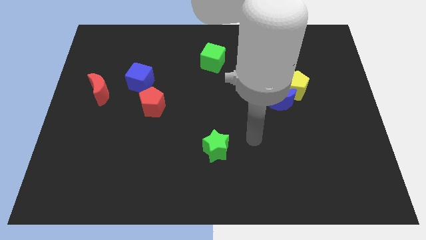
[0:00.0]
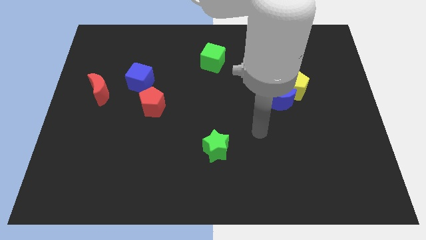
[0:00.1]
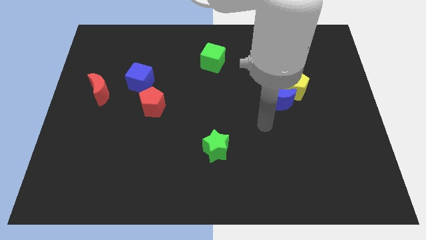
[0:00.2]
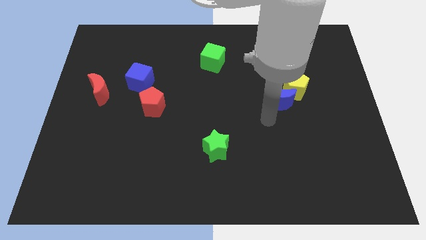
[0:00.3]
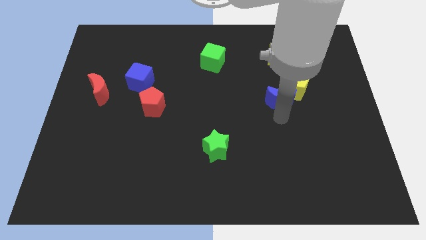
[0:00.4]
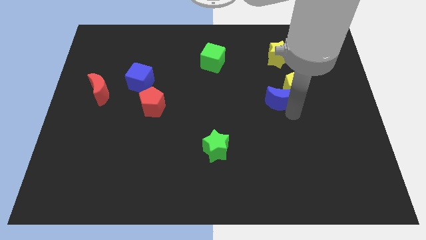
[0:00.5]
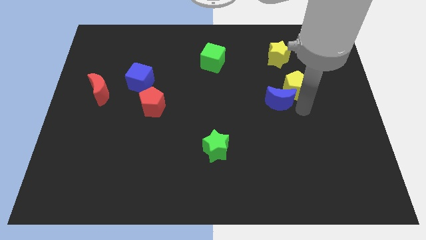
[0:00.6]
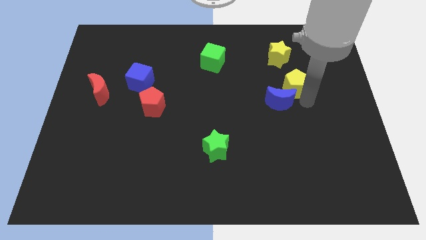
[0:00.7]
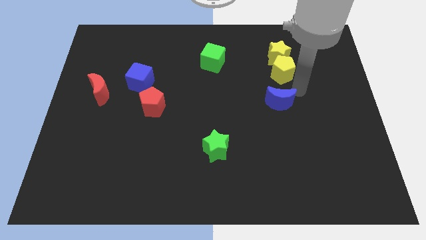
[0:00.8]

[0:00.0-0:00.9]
separate the blue moon from the yellow pentagon

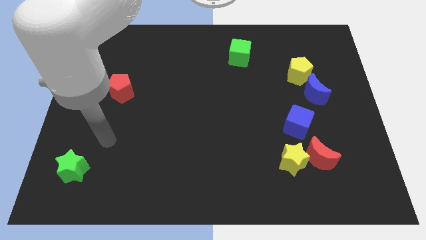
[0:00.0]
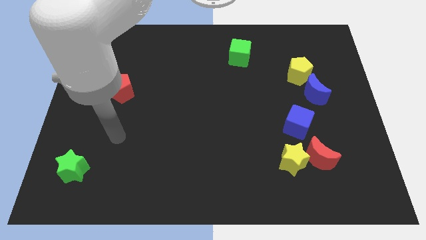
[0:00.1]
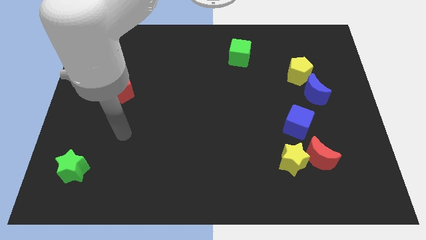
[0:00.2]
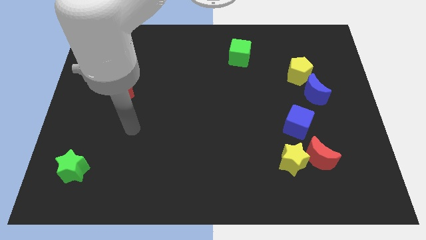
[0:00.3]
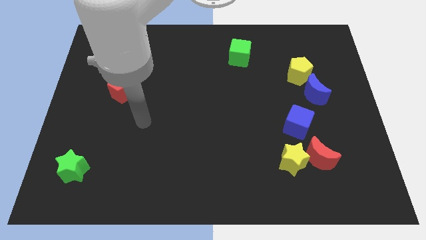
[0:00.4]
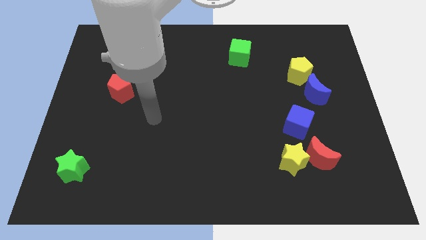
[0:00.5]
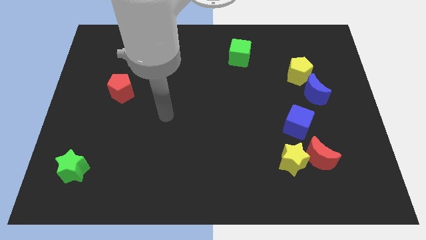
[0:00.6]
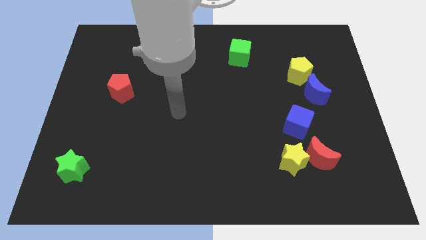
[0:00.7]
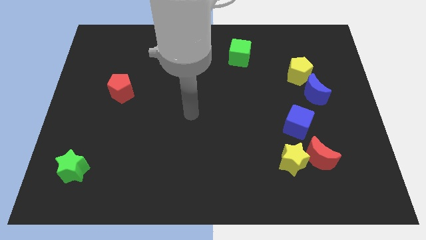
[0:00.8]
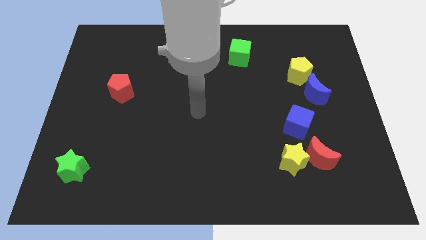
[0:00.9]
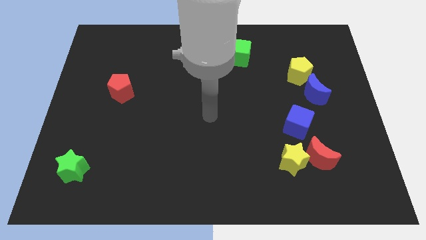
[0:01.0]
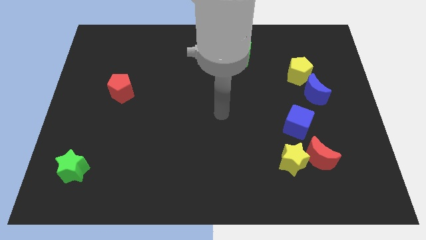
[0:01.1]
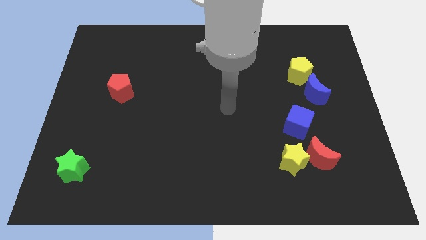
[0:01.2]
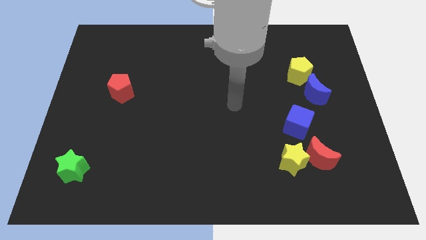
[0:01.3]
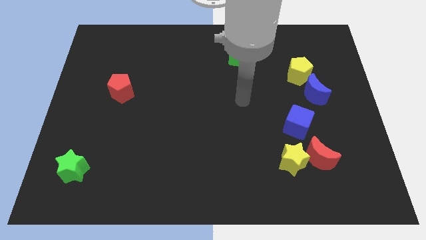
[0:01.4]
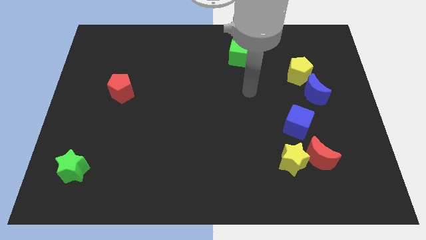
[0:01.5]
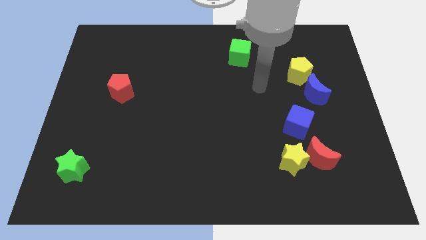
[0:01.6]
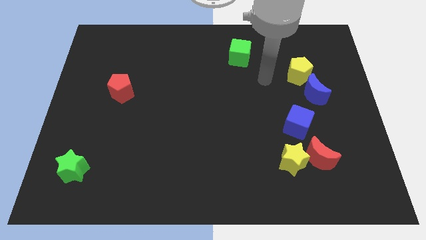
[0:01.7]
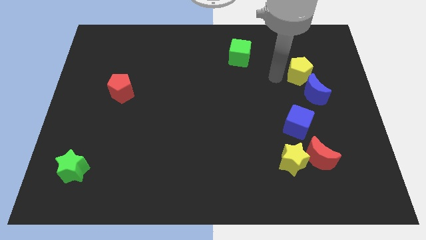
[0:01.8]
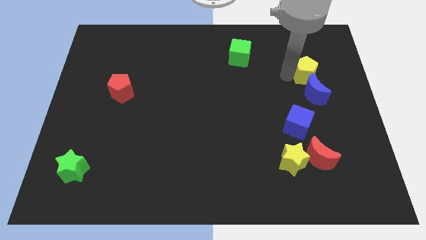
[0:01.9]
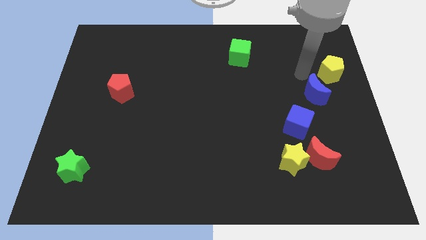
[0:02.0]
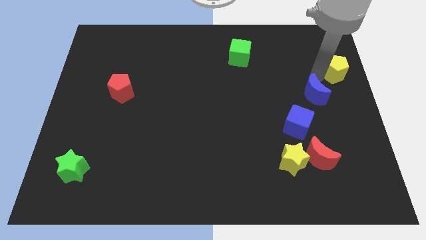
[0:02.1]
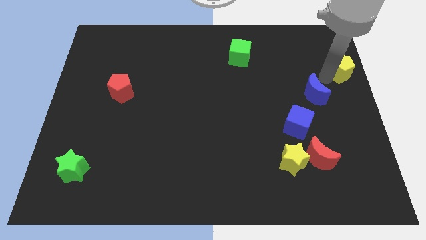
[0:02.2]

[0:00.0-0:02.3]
move the blue moon away from the yellow pentagon

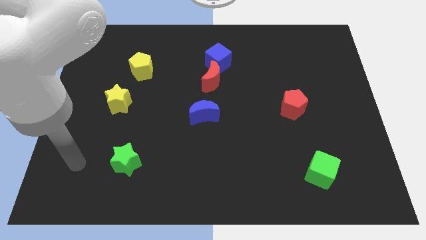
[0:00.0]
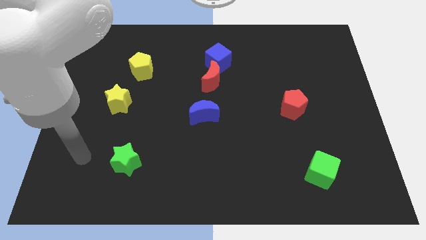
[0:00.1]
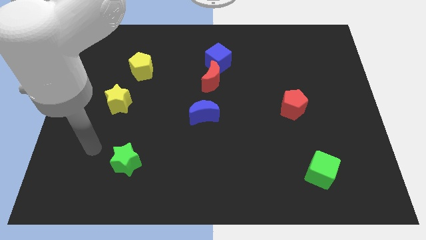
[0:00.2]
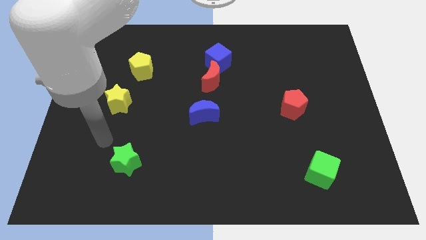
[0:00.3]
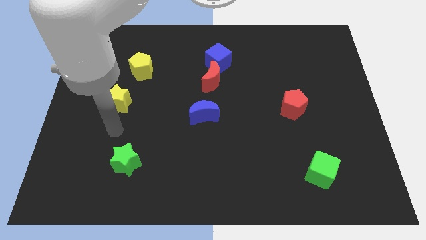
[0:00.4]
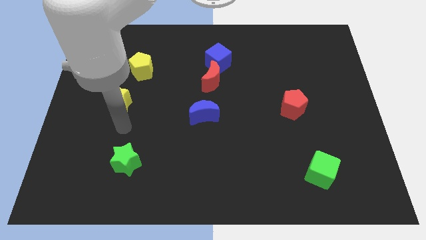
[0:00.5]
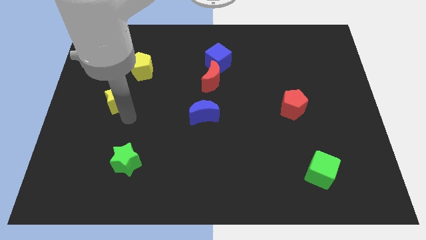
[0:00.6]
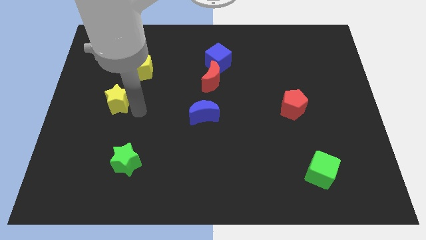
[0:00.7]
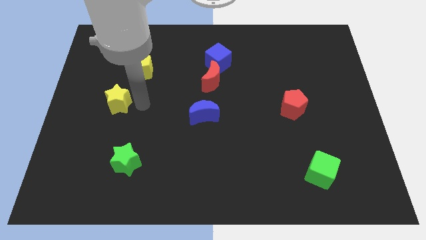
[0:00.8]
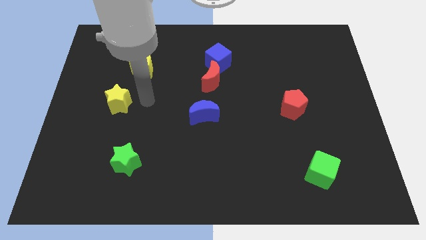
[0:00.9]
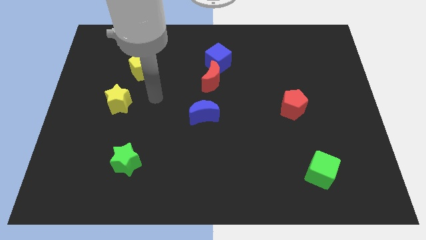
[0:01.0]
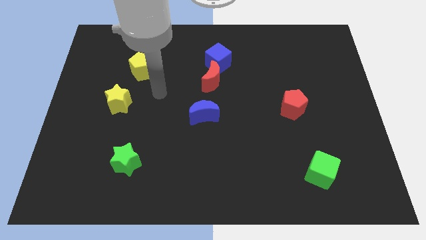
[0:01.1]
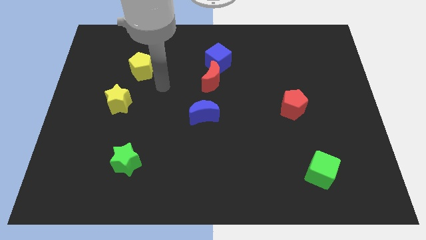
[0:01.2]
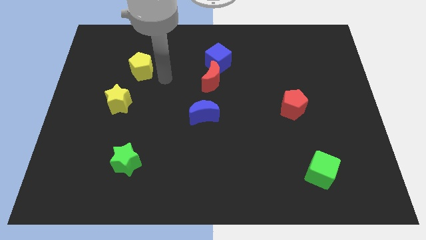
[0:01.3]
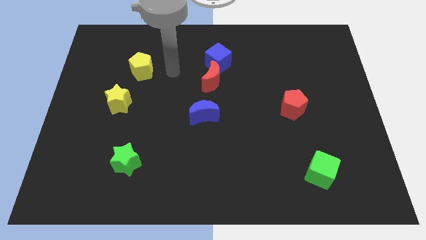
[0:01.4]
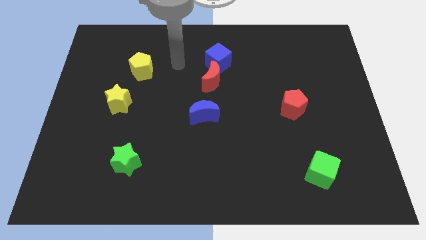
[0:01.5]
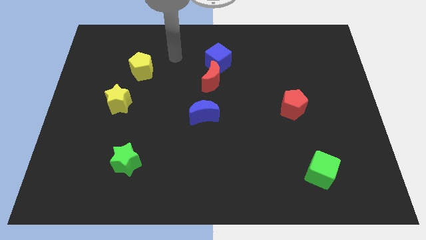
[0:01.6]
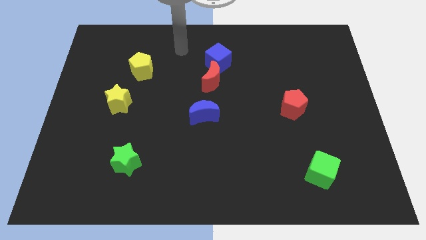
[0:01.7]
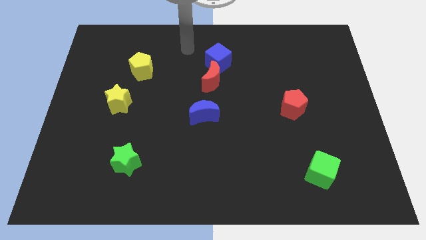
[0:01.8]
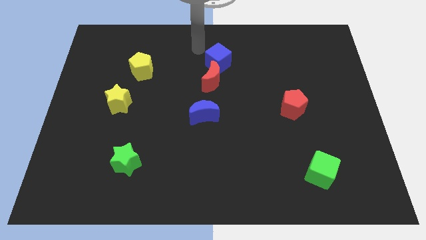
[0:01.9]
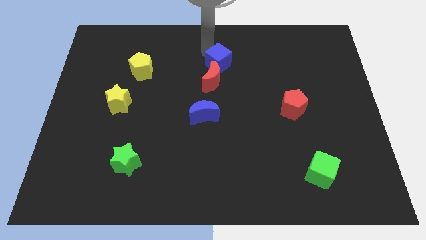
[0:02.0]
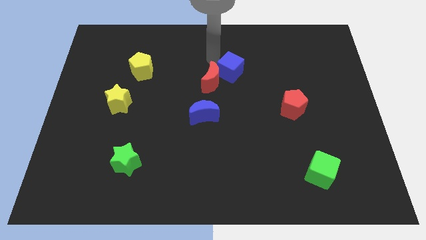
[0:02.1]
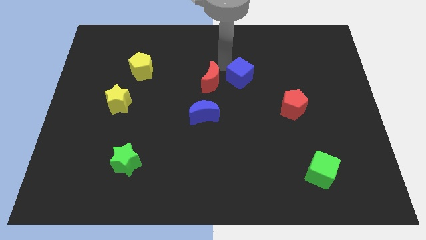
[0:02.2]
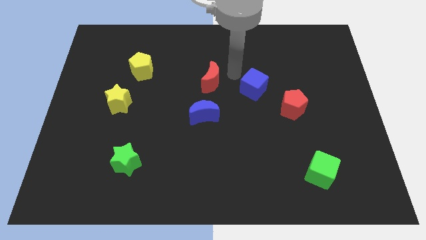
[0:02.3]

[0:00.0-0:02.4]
move the red moon away from the blue cube

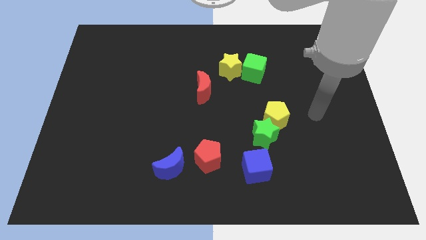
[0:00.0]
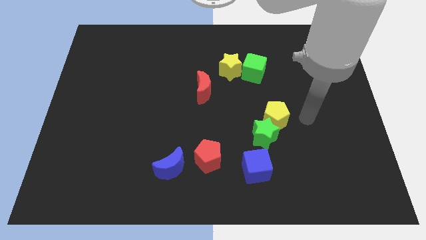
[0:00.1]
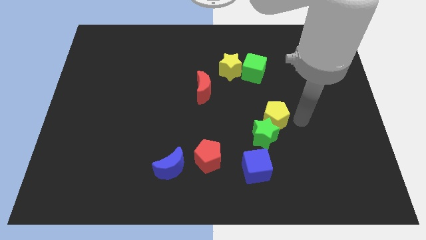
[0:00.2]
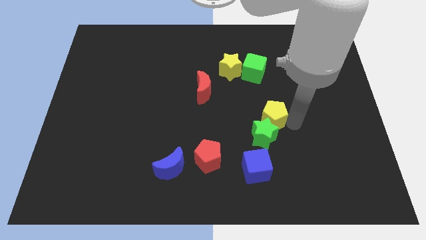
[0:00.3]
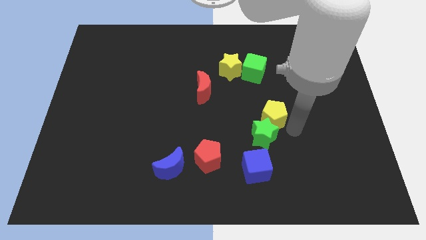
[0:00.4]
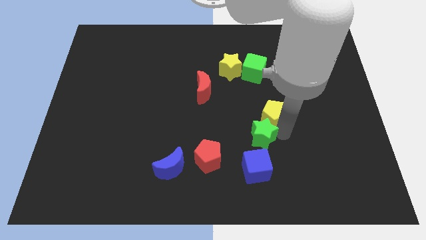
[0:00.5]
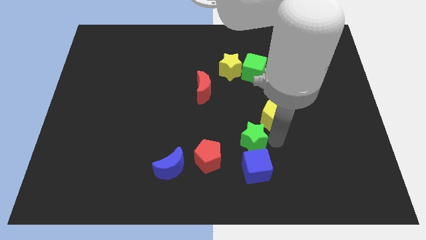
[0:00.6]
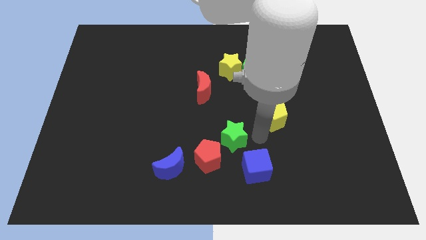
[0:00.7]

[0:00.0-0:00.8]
separate the yellow pentagon from the green star

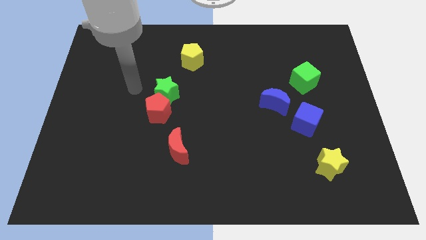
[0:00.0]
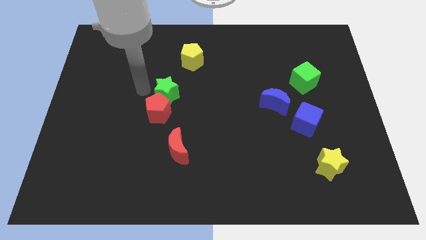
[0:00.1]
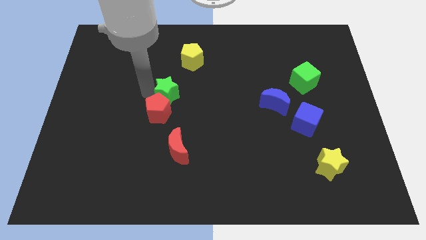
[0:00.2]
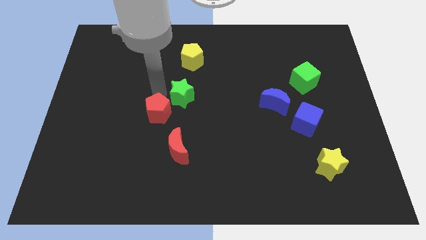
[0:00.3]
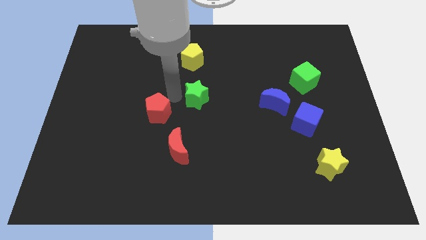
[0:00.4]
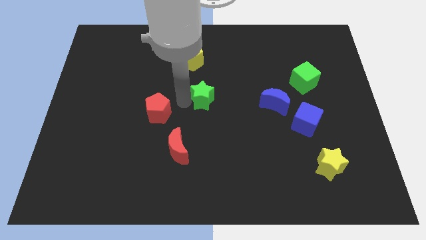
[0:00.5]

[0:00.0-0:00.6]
pull the red pentagon apart from the green star

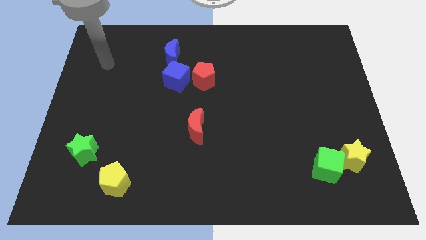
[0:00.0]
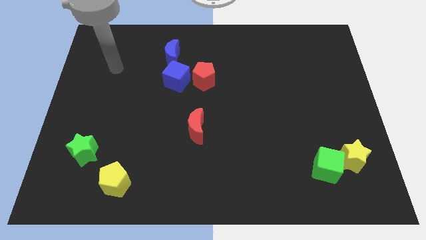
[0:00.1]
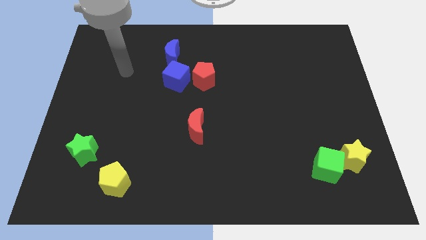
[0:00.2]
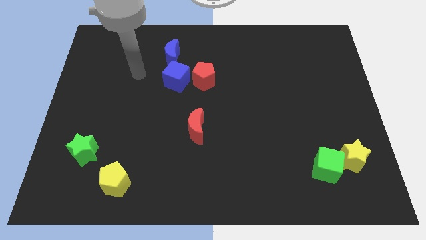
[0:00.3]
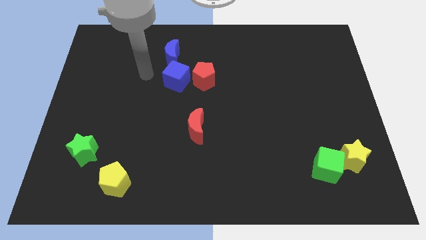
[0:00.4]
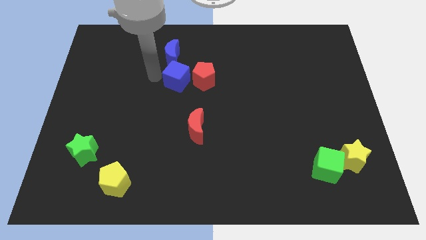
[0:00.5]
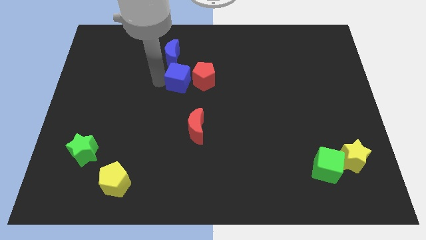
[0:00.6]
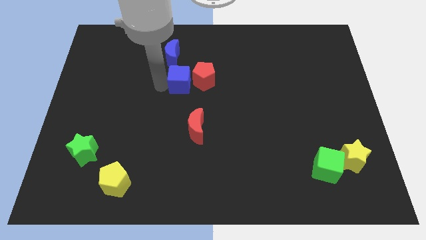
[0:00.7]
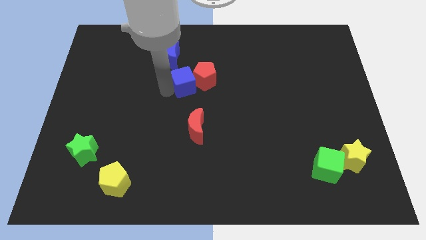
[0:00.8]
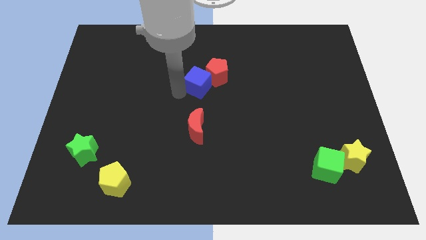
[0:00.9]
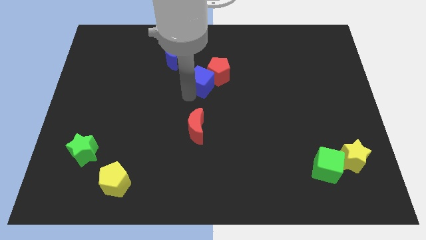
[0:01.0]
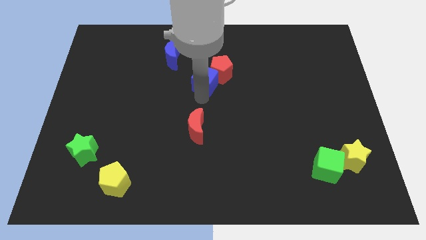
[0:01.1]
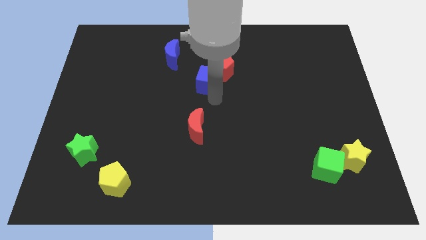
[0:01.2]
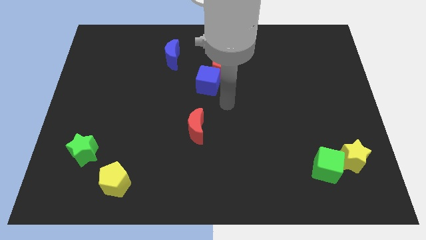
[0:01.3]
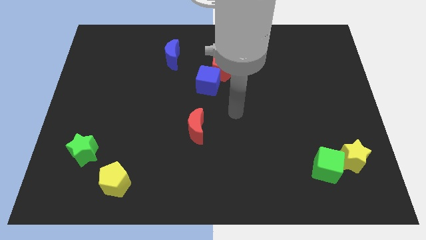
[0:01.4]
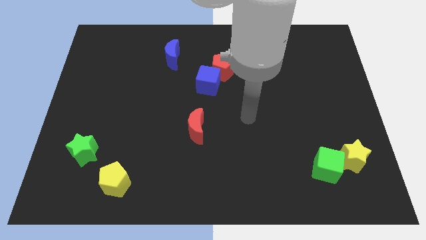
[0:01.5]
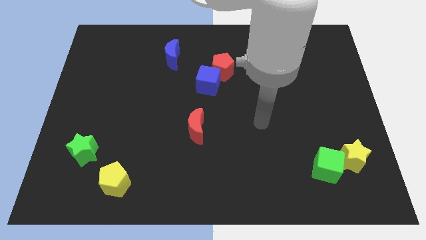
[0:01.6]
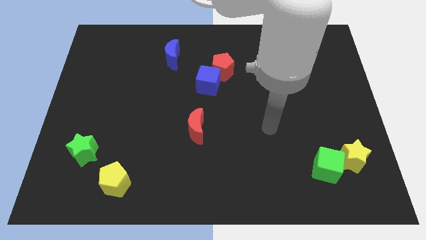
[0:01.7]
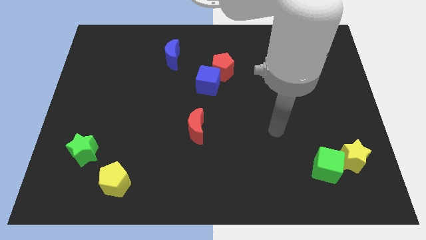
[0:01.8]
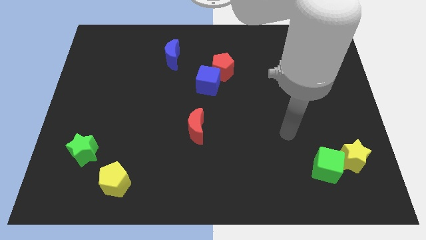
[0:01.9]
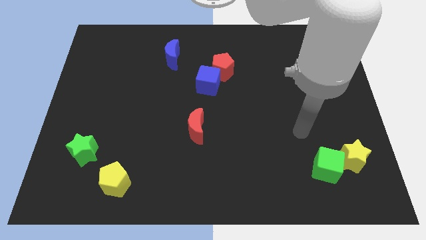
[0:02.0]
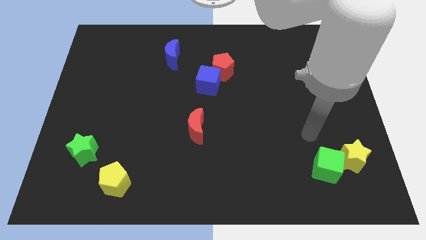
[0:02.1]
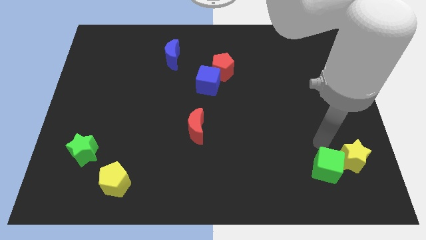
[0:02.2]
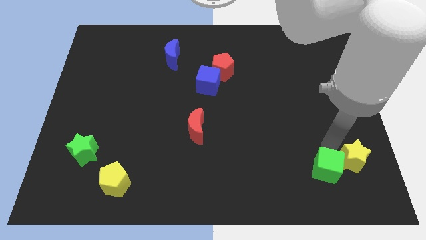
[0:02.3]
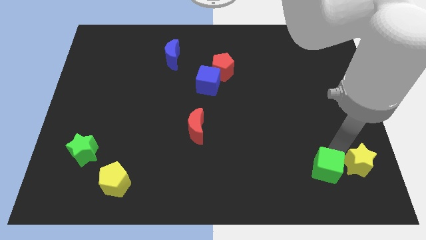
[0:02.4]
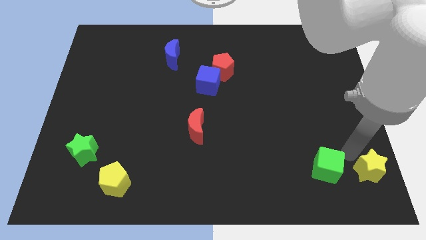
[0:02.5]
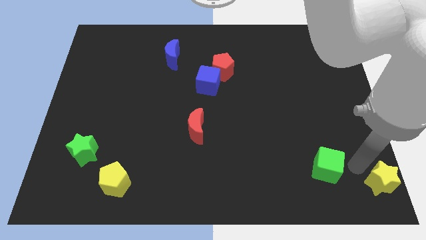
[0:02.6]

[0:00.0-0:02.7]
separate the green cube from the yellow star
